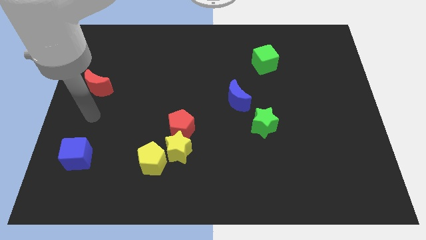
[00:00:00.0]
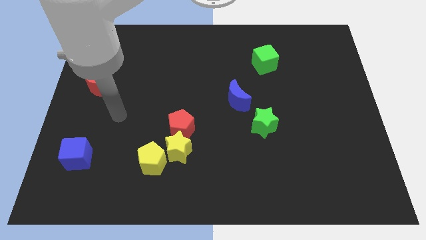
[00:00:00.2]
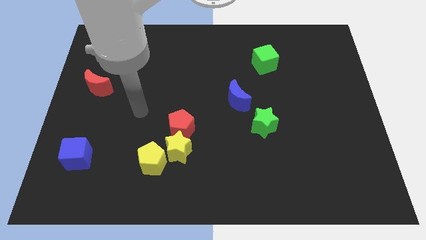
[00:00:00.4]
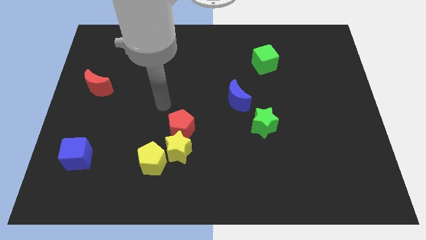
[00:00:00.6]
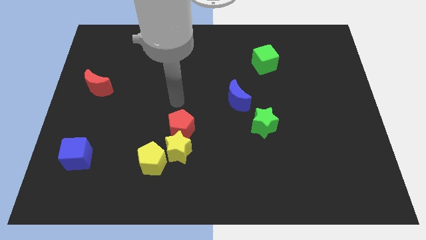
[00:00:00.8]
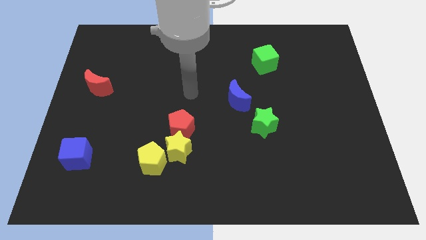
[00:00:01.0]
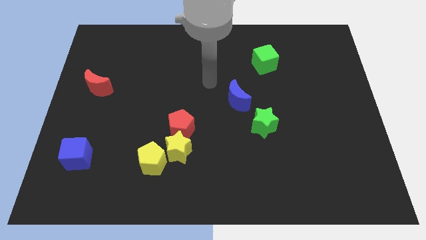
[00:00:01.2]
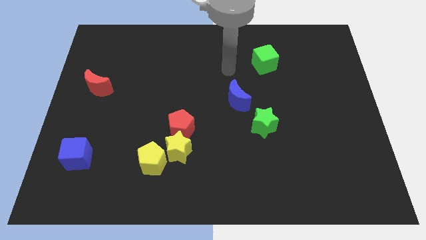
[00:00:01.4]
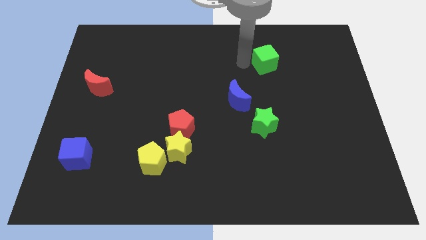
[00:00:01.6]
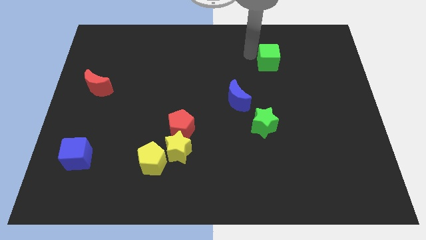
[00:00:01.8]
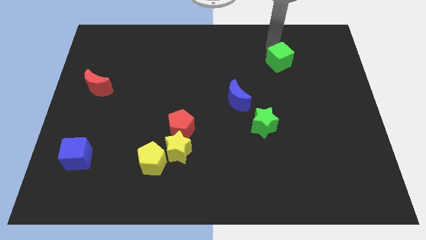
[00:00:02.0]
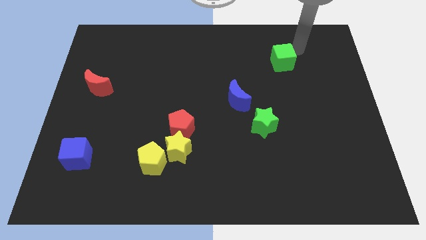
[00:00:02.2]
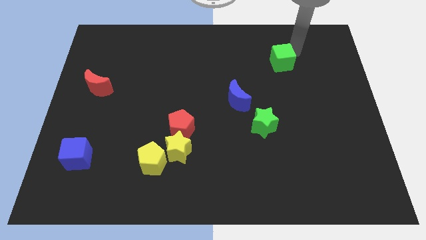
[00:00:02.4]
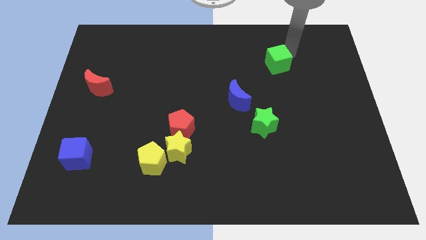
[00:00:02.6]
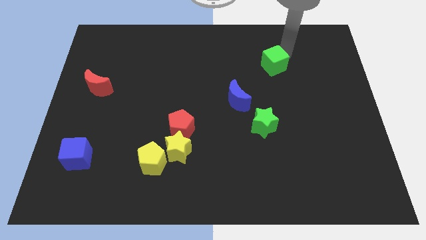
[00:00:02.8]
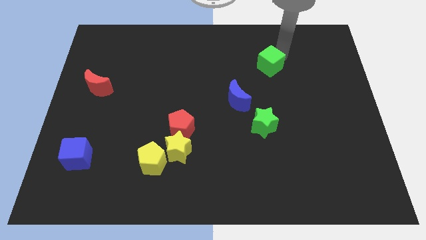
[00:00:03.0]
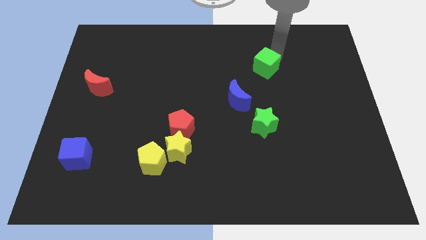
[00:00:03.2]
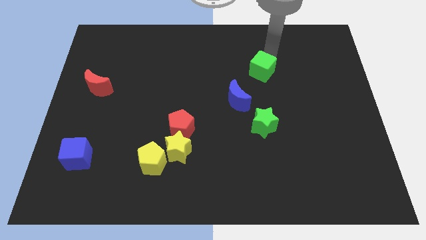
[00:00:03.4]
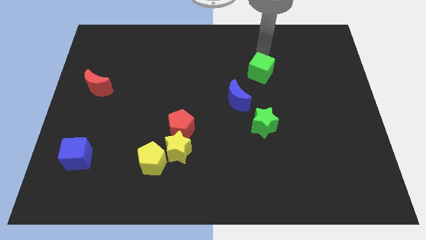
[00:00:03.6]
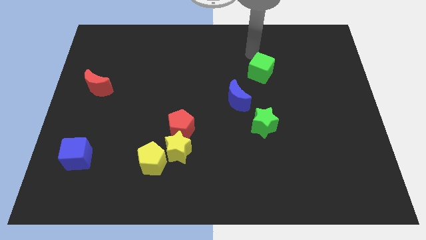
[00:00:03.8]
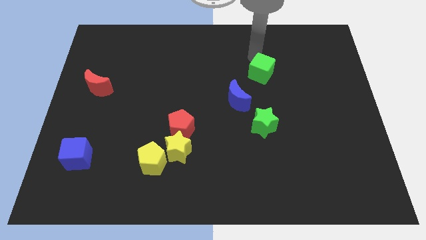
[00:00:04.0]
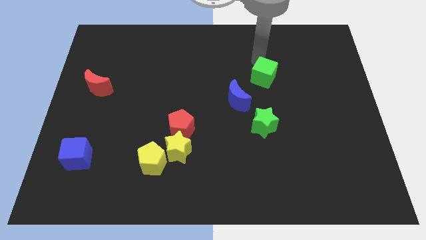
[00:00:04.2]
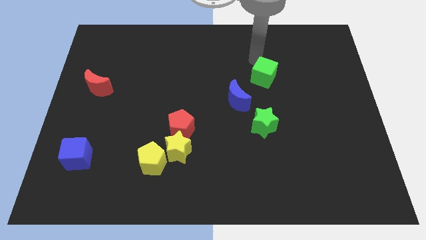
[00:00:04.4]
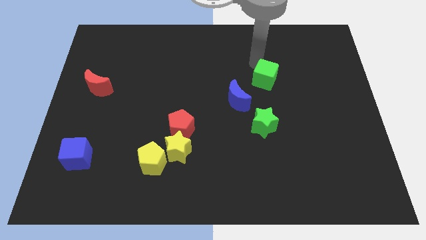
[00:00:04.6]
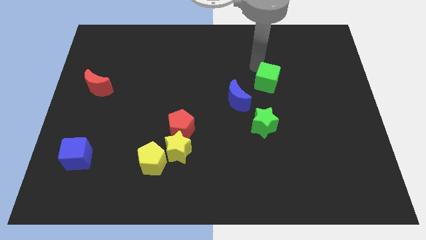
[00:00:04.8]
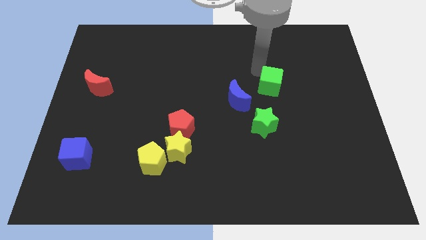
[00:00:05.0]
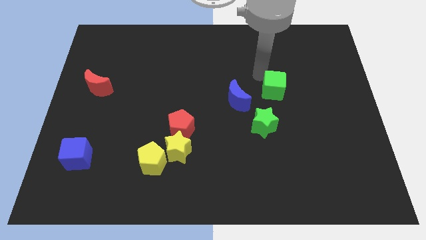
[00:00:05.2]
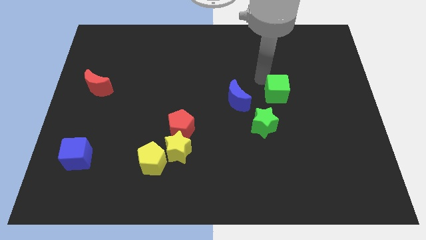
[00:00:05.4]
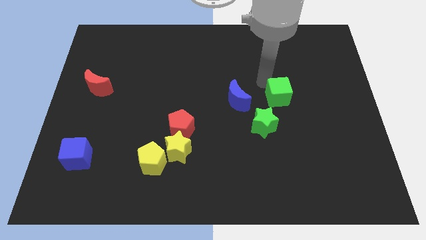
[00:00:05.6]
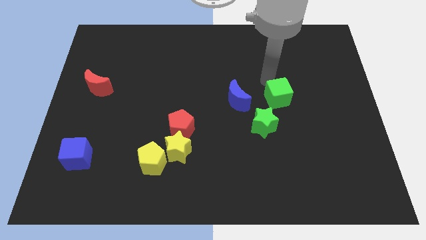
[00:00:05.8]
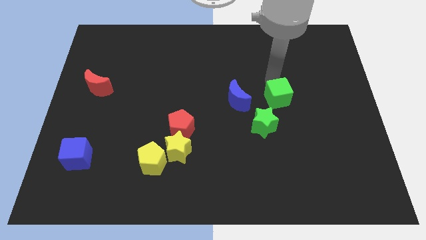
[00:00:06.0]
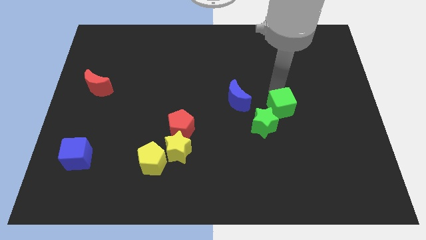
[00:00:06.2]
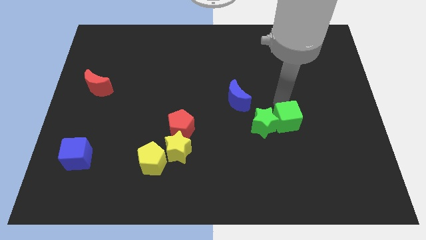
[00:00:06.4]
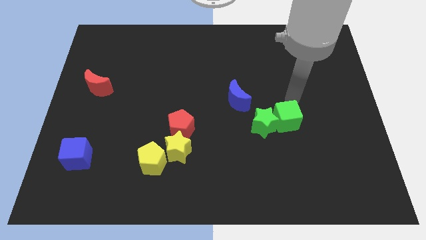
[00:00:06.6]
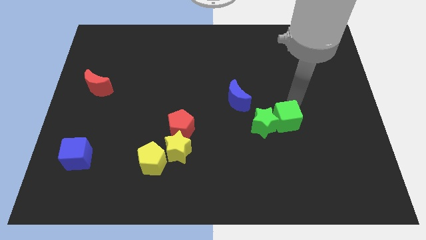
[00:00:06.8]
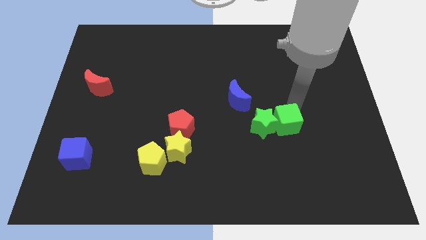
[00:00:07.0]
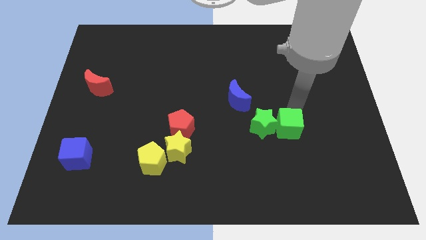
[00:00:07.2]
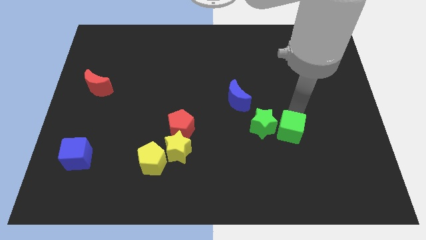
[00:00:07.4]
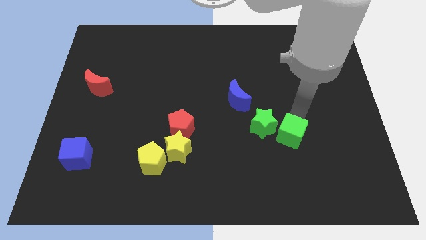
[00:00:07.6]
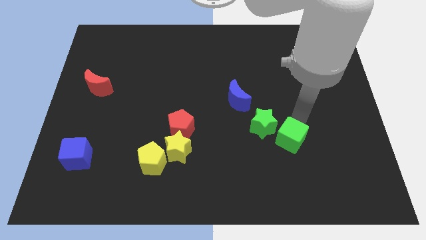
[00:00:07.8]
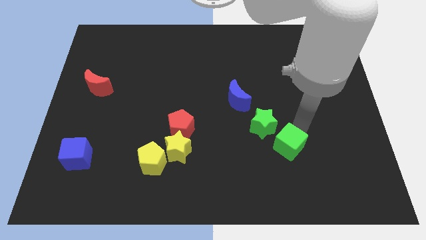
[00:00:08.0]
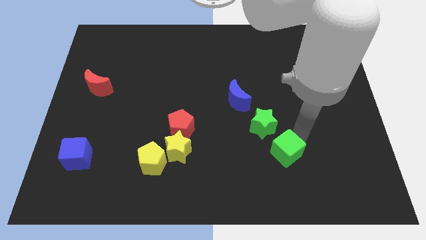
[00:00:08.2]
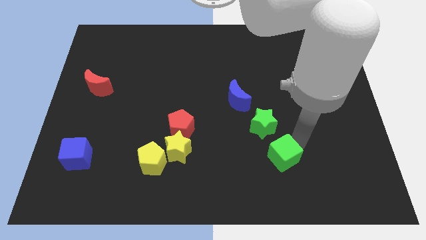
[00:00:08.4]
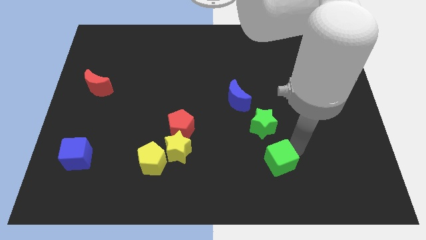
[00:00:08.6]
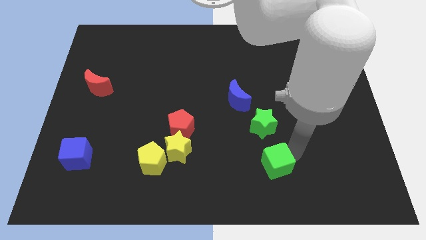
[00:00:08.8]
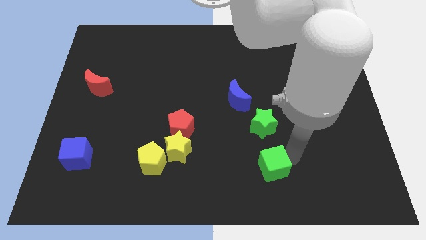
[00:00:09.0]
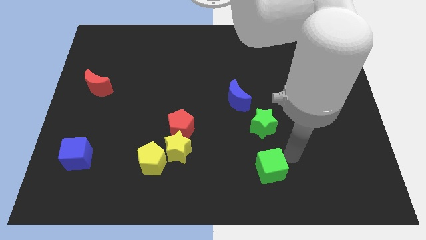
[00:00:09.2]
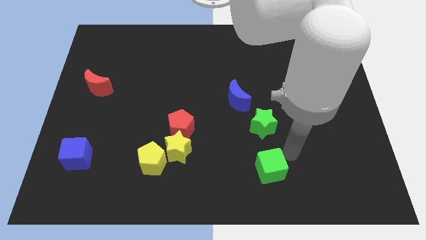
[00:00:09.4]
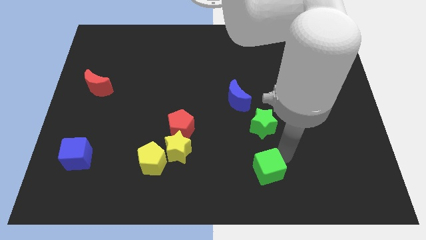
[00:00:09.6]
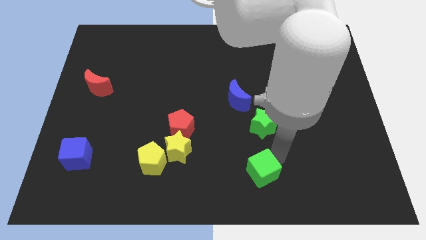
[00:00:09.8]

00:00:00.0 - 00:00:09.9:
move the green cube to the bottom side

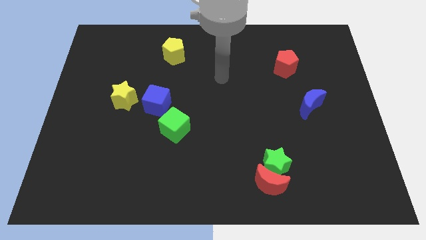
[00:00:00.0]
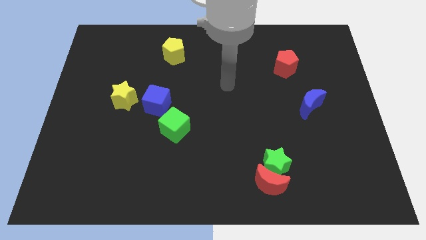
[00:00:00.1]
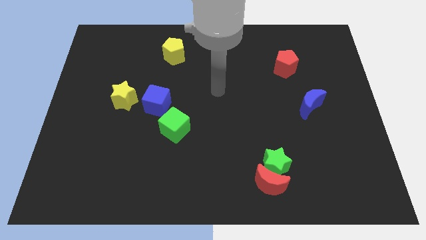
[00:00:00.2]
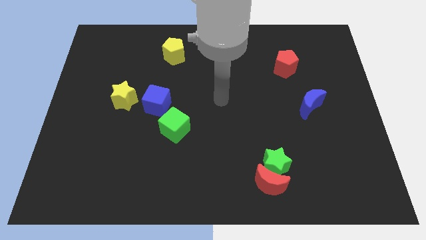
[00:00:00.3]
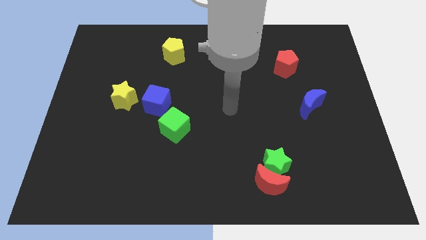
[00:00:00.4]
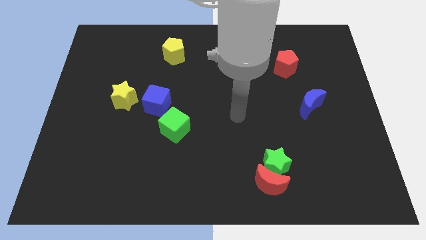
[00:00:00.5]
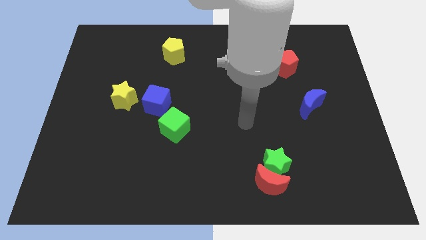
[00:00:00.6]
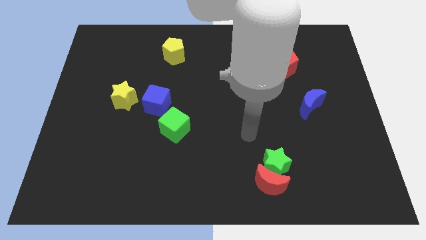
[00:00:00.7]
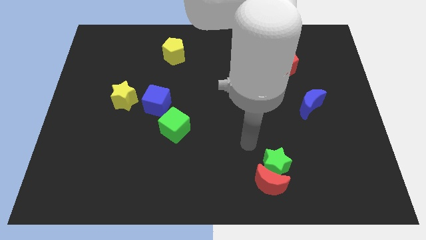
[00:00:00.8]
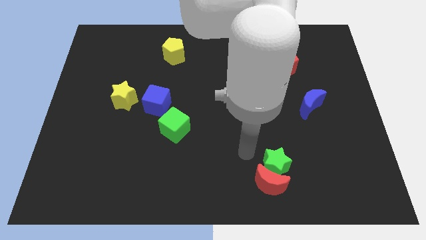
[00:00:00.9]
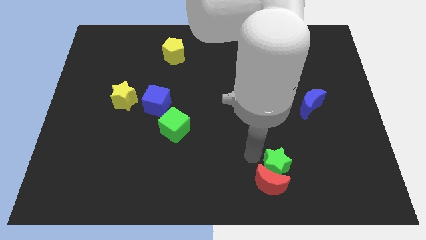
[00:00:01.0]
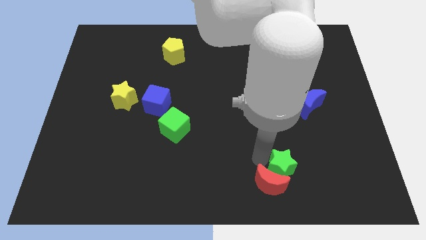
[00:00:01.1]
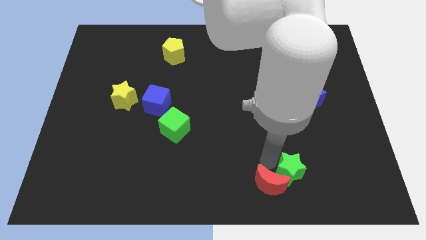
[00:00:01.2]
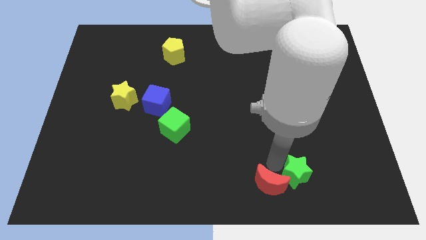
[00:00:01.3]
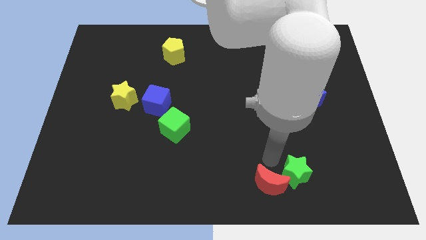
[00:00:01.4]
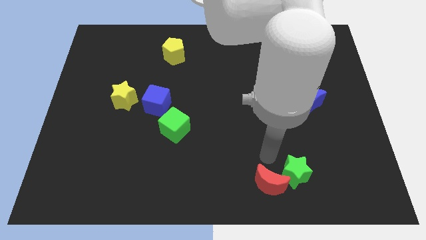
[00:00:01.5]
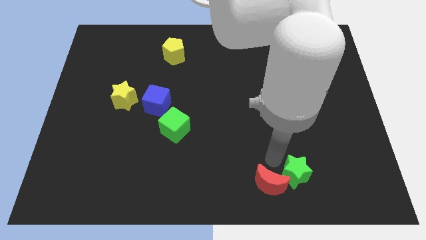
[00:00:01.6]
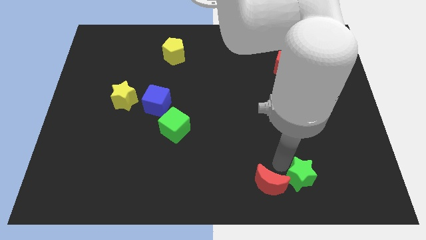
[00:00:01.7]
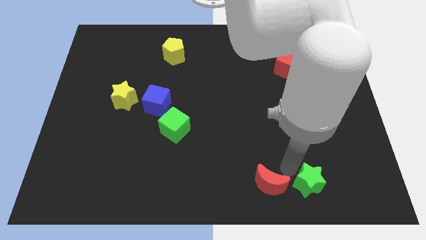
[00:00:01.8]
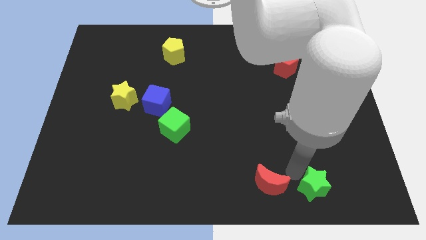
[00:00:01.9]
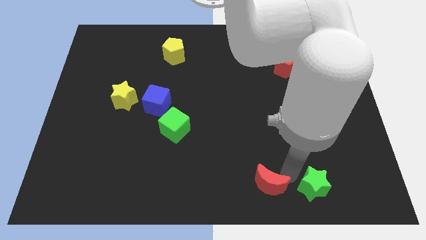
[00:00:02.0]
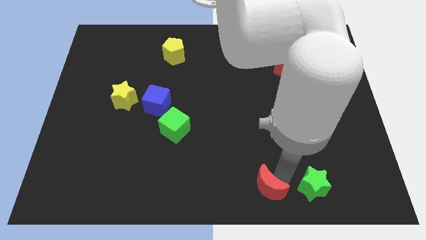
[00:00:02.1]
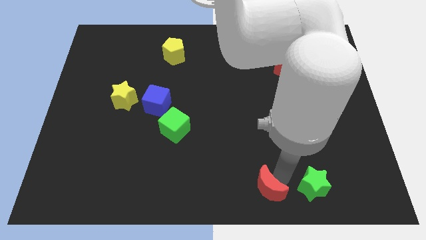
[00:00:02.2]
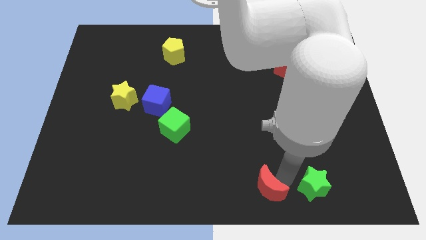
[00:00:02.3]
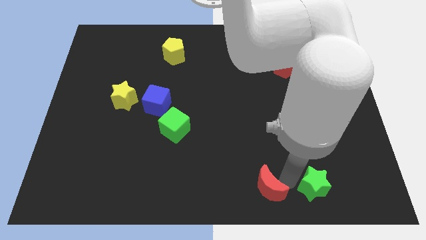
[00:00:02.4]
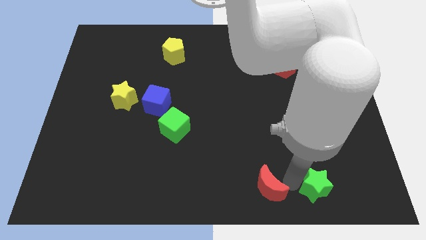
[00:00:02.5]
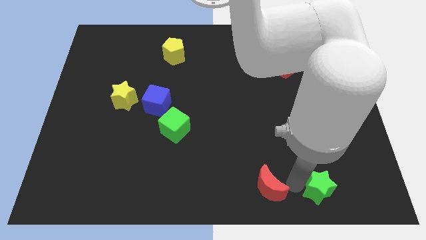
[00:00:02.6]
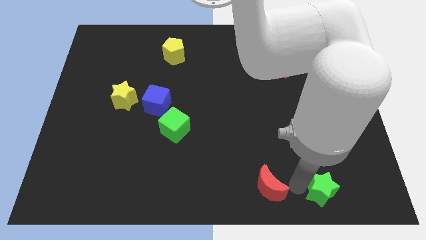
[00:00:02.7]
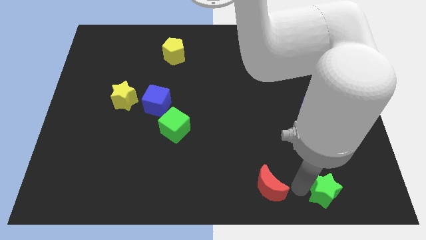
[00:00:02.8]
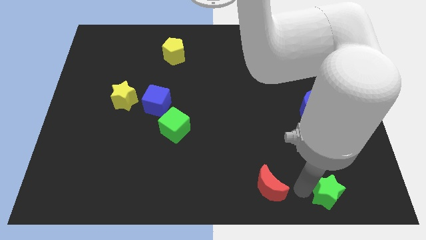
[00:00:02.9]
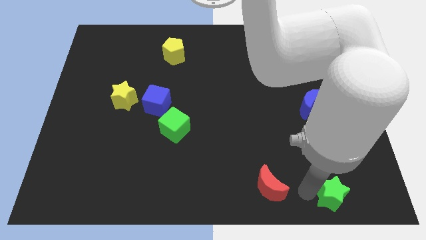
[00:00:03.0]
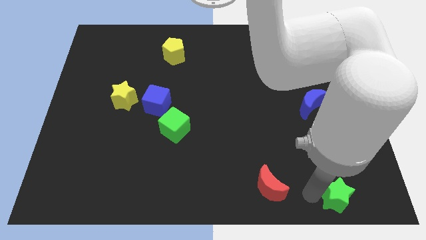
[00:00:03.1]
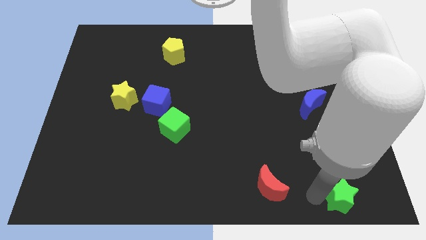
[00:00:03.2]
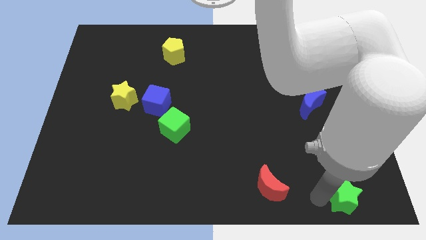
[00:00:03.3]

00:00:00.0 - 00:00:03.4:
put the green star to the lower right corner
